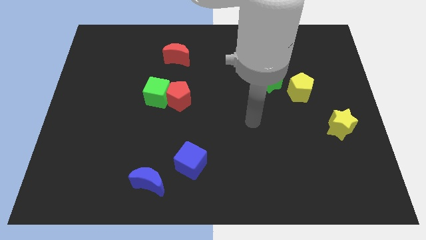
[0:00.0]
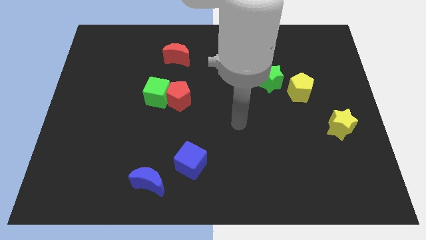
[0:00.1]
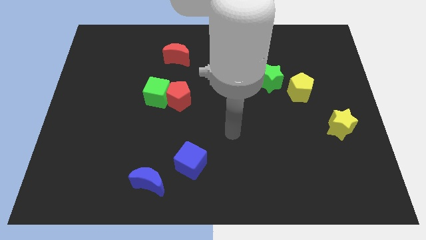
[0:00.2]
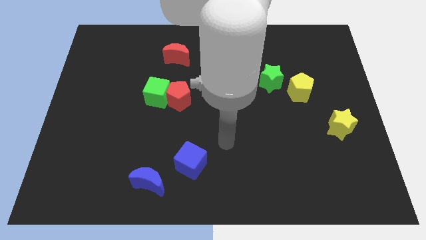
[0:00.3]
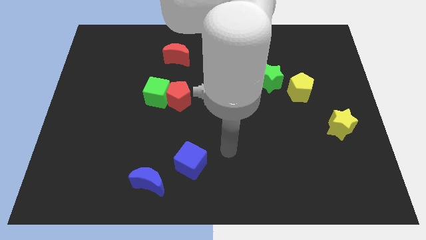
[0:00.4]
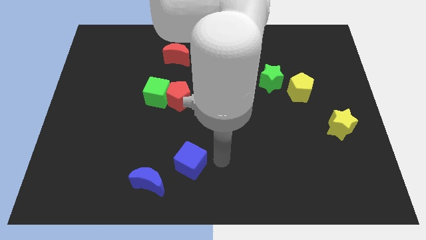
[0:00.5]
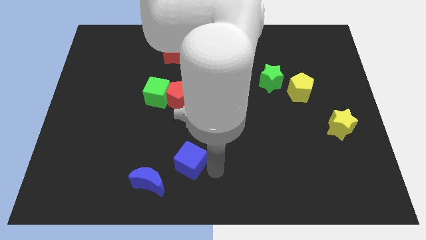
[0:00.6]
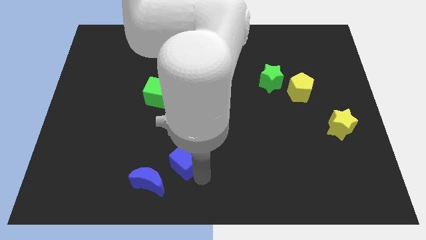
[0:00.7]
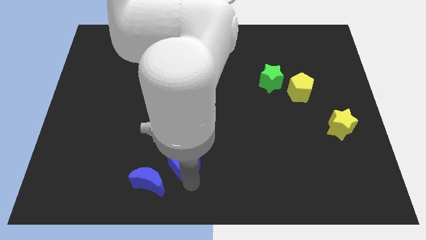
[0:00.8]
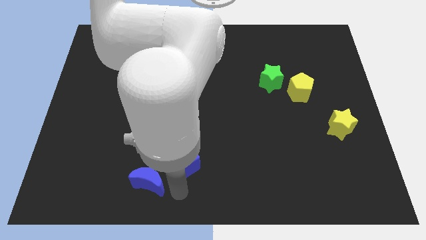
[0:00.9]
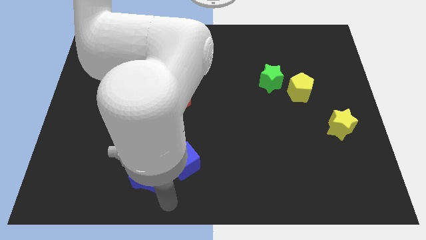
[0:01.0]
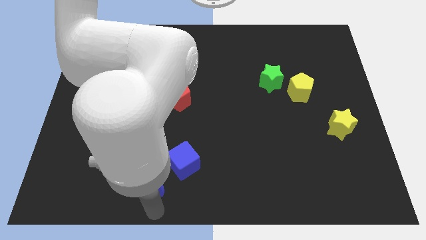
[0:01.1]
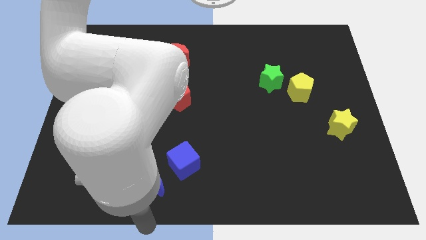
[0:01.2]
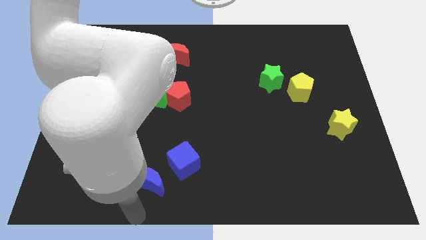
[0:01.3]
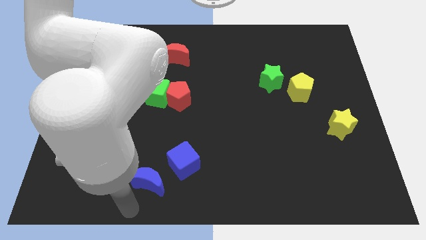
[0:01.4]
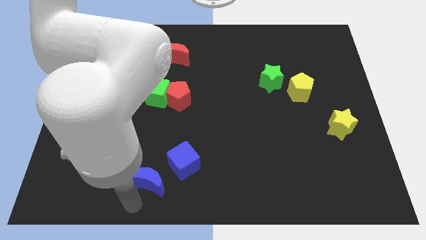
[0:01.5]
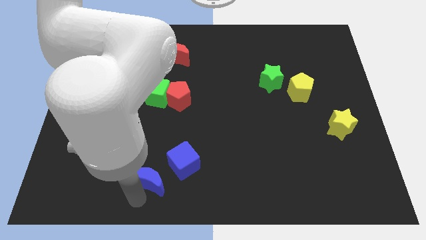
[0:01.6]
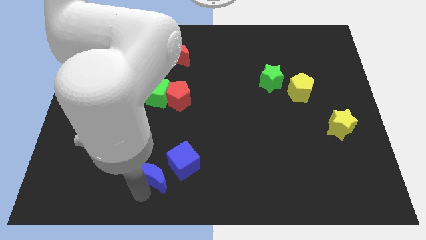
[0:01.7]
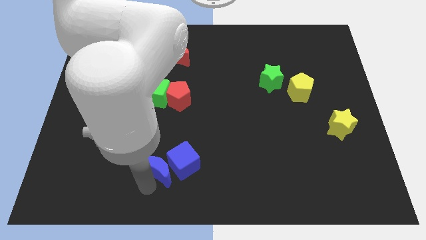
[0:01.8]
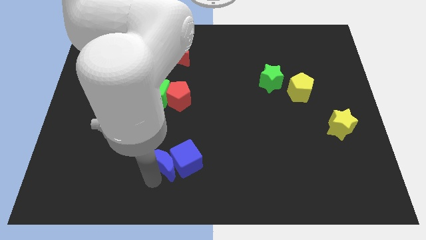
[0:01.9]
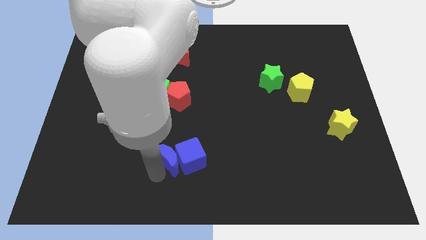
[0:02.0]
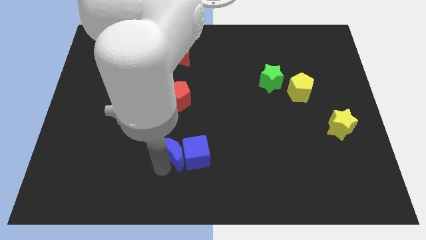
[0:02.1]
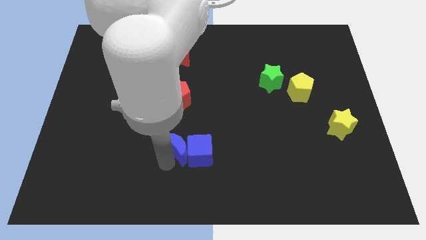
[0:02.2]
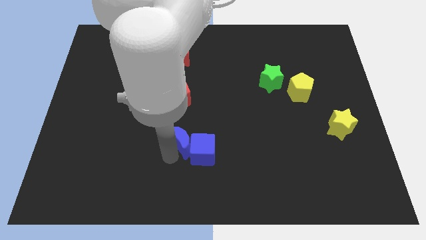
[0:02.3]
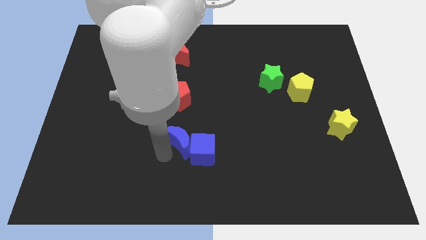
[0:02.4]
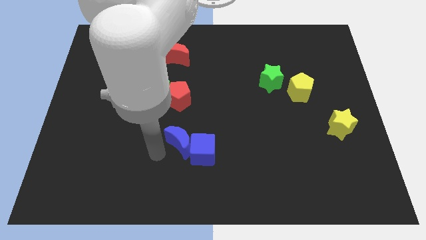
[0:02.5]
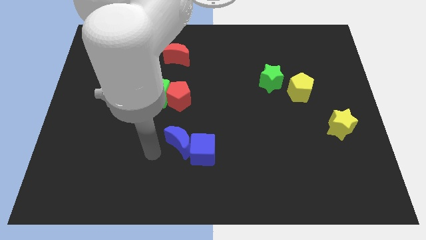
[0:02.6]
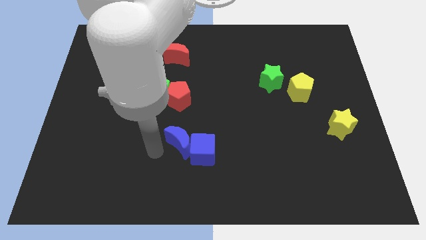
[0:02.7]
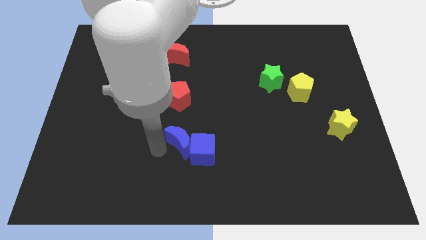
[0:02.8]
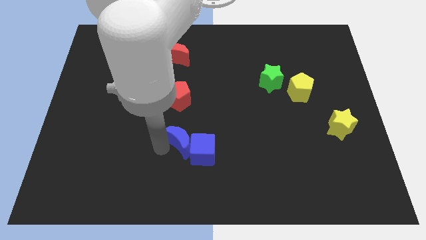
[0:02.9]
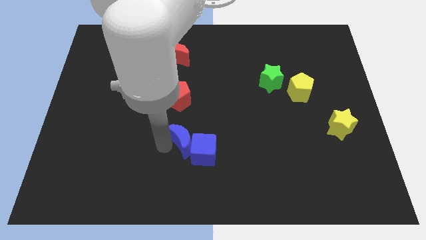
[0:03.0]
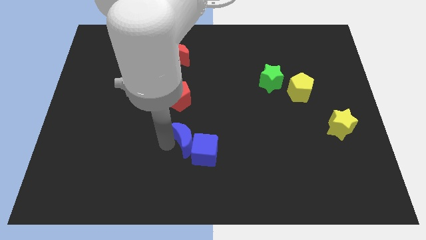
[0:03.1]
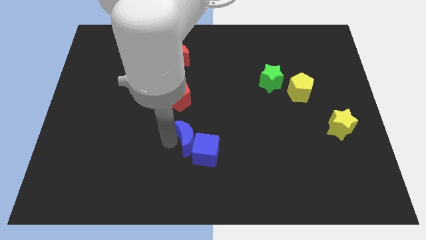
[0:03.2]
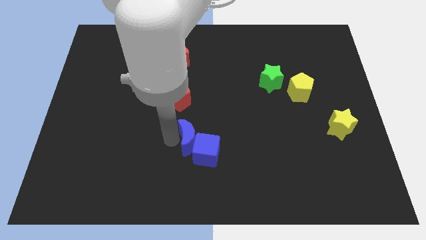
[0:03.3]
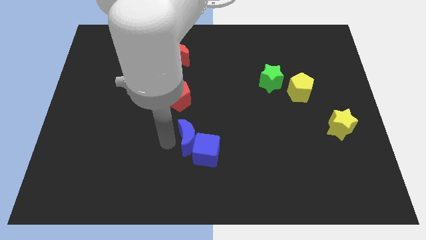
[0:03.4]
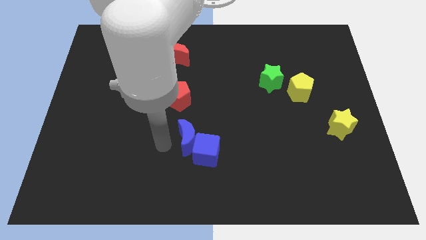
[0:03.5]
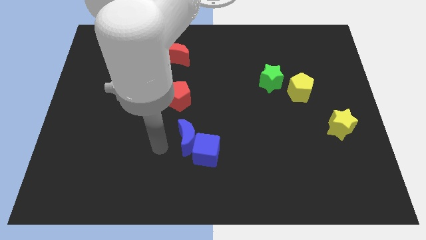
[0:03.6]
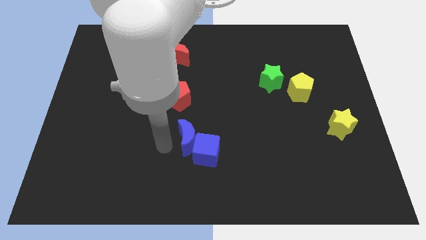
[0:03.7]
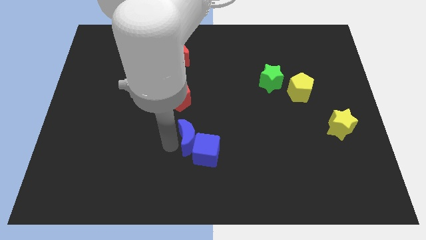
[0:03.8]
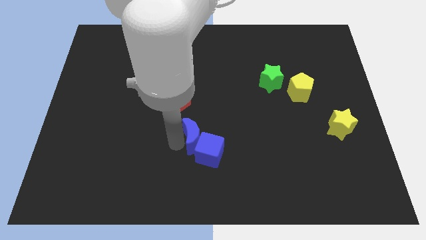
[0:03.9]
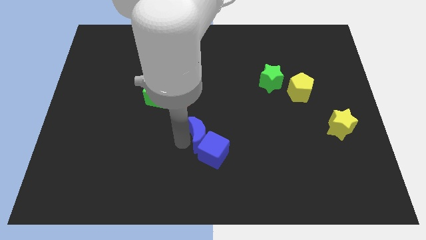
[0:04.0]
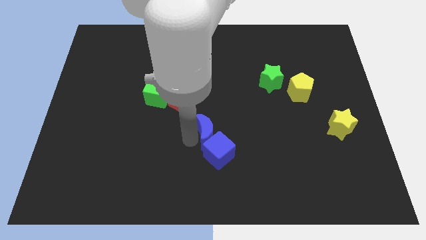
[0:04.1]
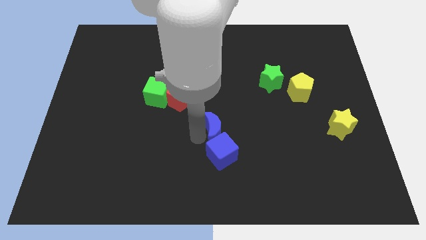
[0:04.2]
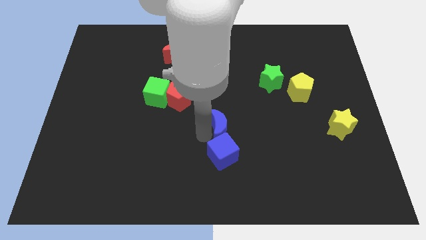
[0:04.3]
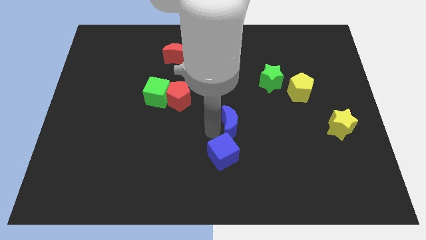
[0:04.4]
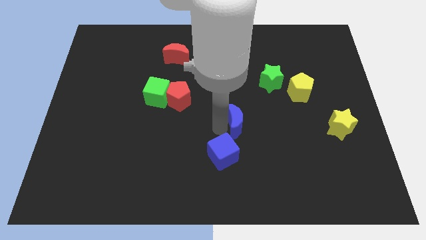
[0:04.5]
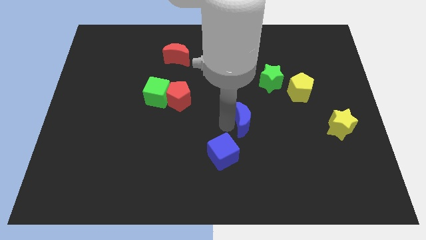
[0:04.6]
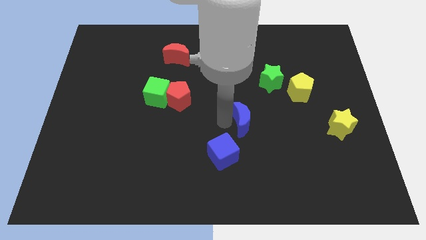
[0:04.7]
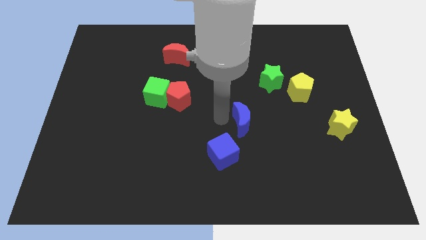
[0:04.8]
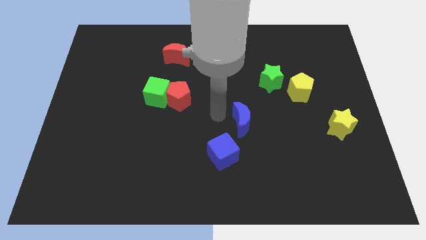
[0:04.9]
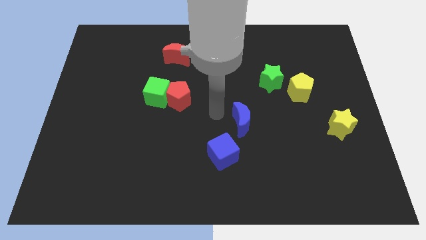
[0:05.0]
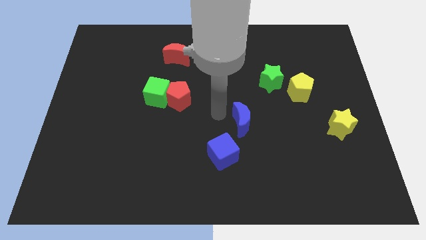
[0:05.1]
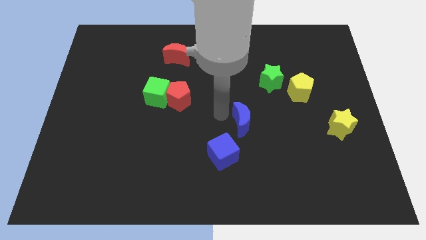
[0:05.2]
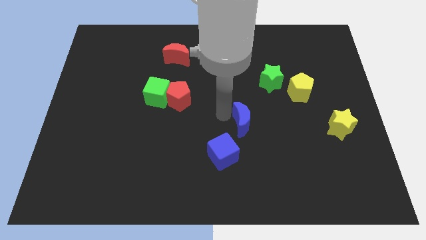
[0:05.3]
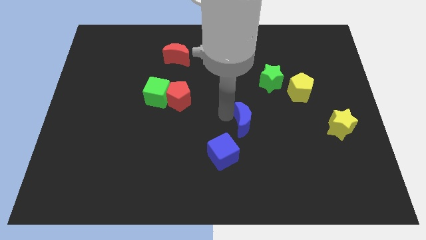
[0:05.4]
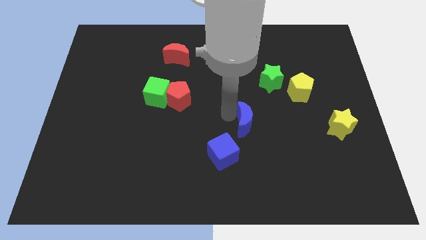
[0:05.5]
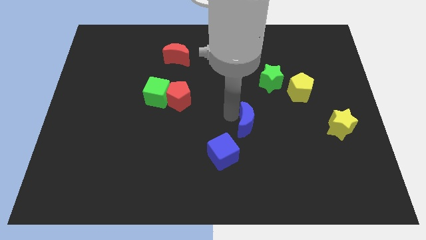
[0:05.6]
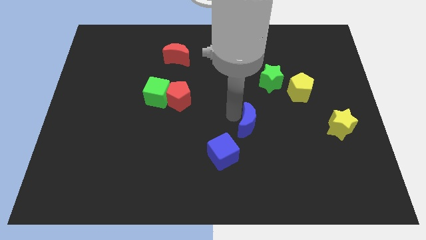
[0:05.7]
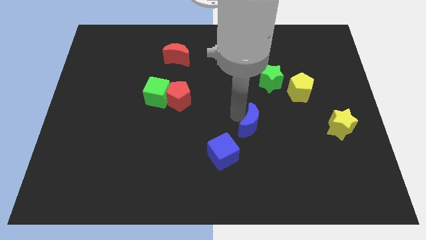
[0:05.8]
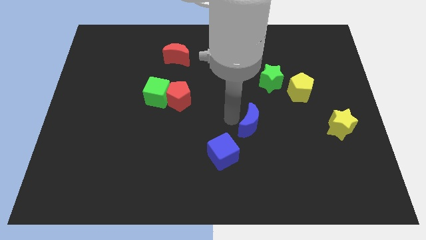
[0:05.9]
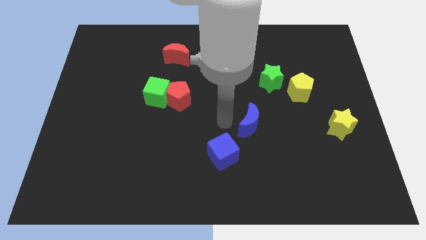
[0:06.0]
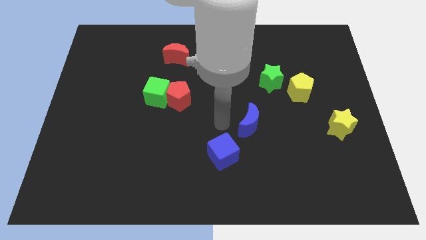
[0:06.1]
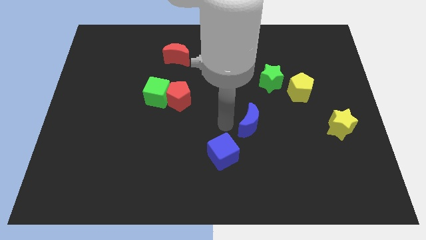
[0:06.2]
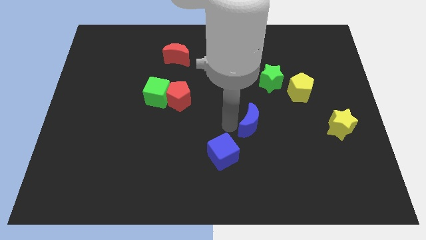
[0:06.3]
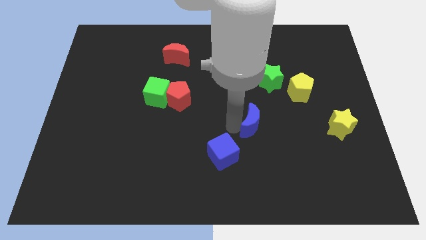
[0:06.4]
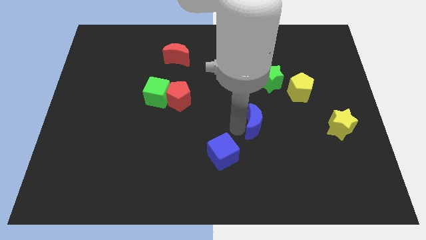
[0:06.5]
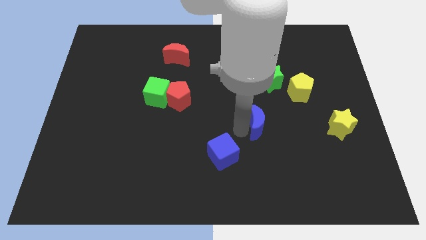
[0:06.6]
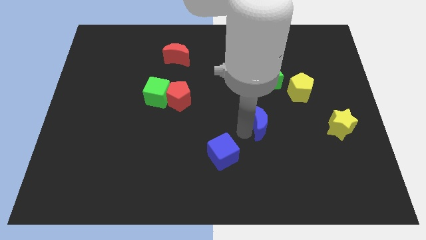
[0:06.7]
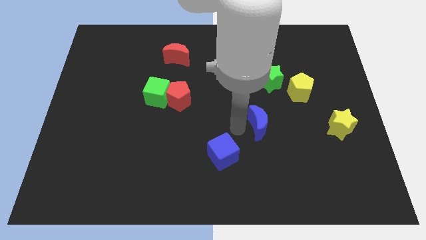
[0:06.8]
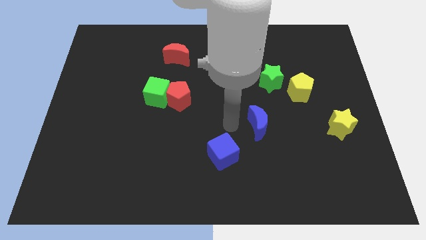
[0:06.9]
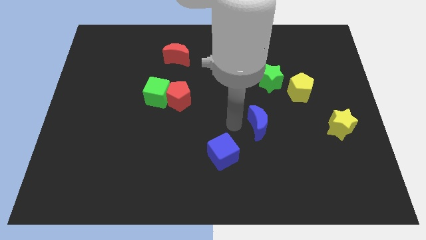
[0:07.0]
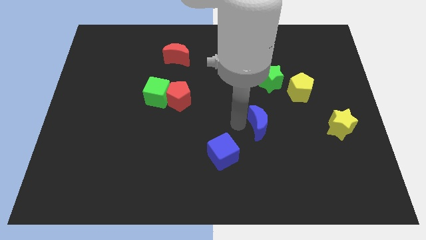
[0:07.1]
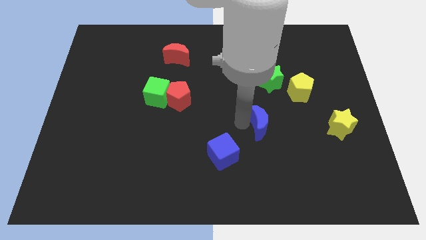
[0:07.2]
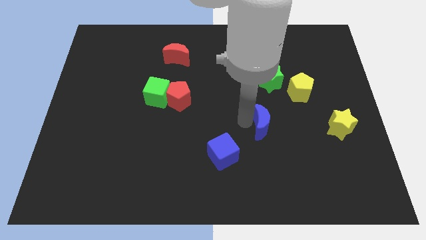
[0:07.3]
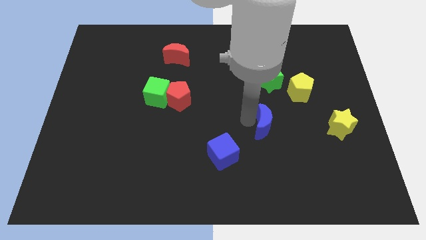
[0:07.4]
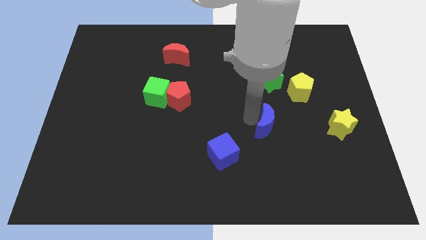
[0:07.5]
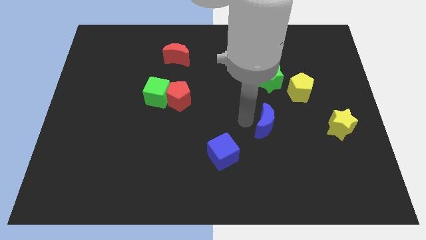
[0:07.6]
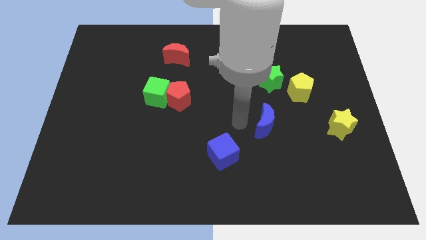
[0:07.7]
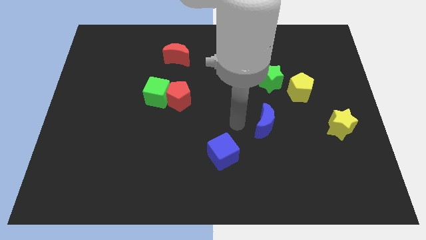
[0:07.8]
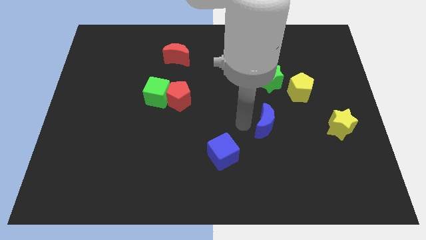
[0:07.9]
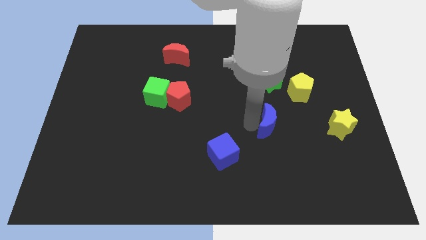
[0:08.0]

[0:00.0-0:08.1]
slide the blue moon to the left side of the yellow star
